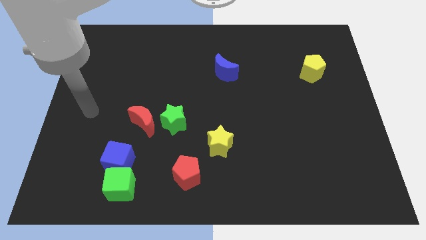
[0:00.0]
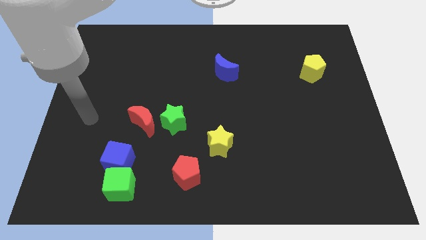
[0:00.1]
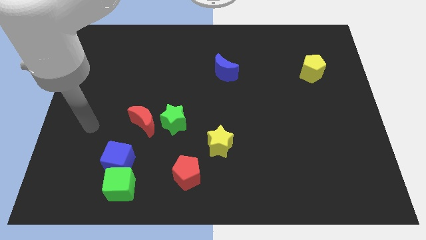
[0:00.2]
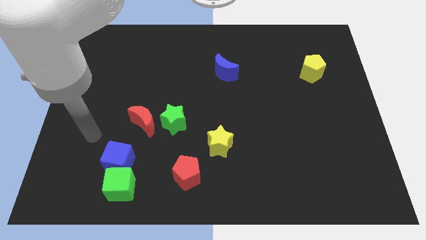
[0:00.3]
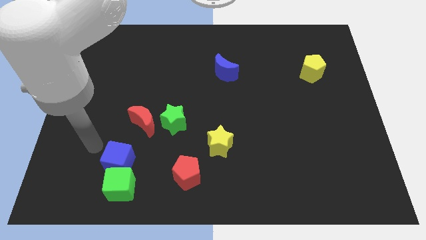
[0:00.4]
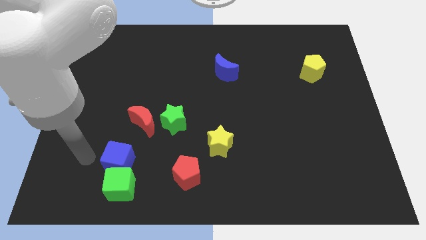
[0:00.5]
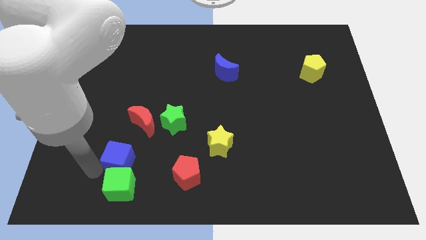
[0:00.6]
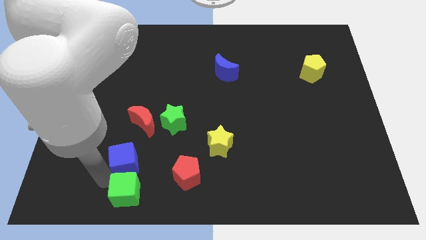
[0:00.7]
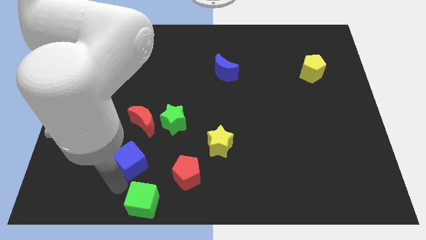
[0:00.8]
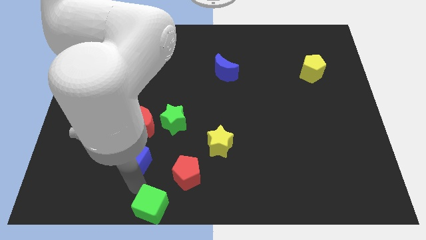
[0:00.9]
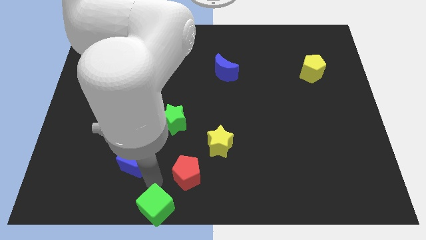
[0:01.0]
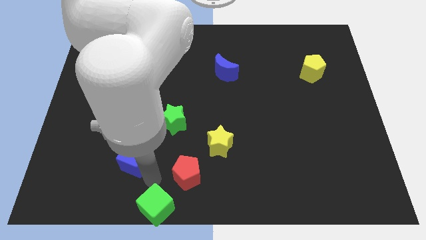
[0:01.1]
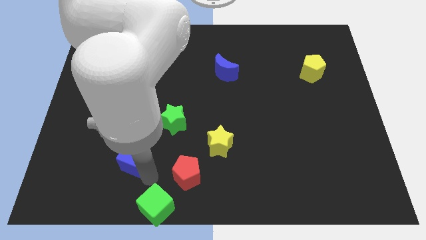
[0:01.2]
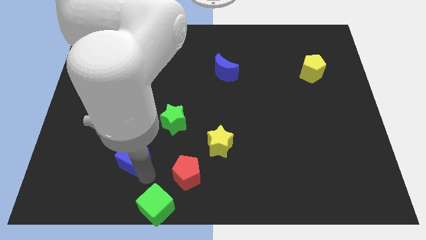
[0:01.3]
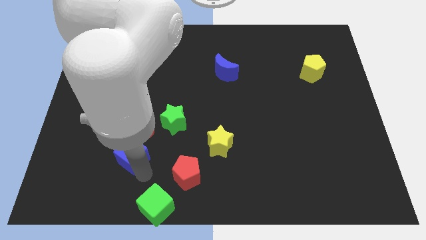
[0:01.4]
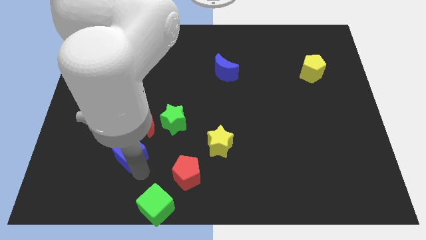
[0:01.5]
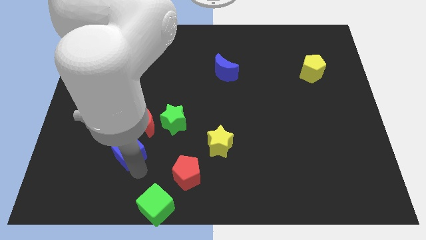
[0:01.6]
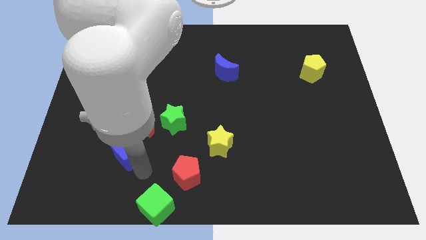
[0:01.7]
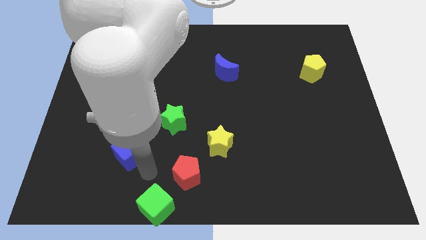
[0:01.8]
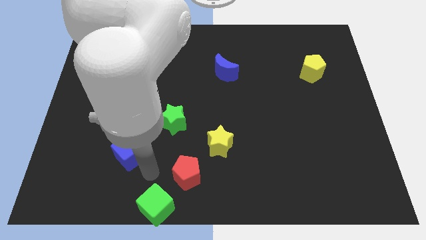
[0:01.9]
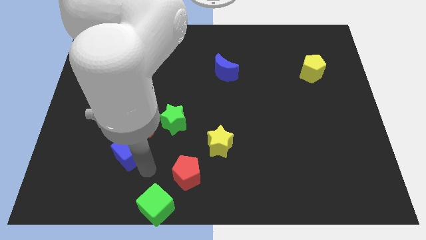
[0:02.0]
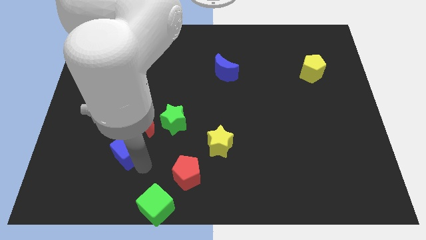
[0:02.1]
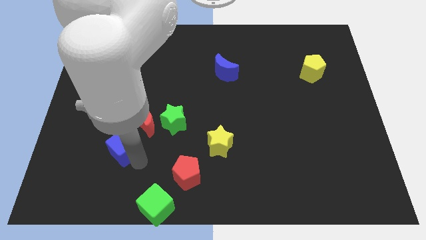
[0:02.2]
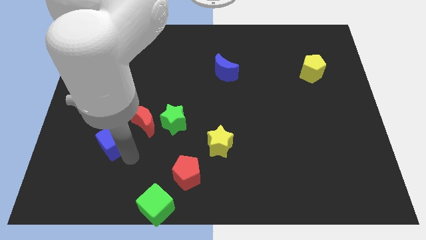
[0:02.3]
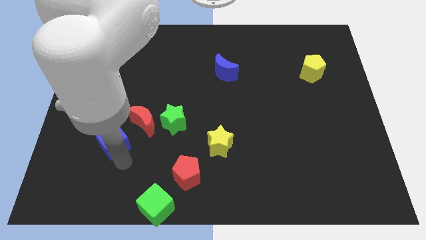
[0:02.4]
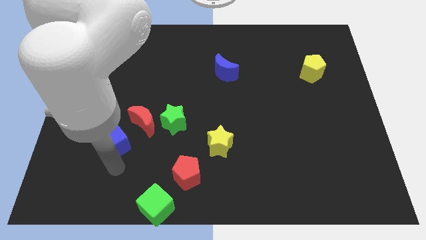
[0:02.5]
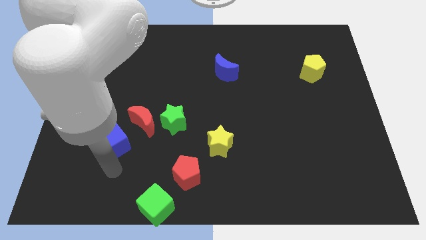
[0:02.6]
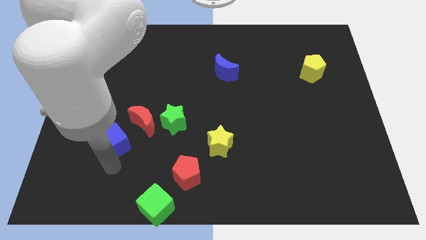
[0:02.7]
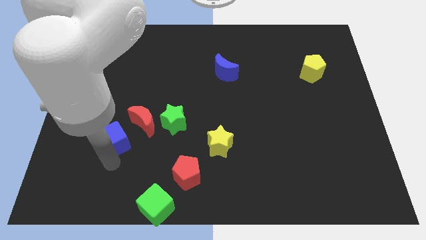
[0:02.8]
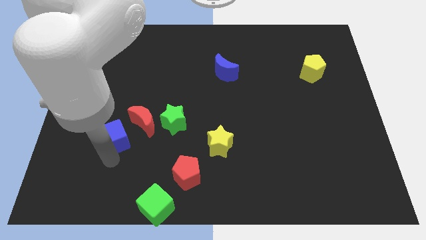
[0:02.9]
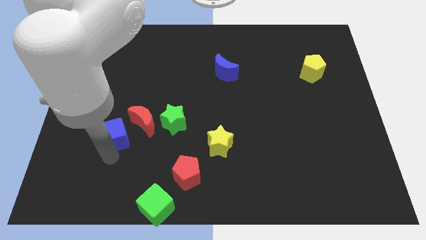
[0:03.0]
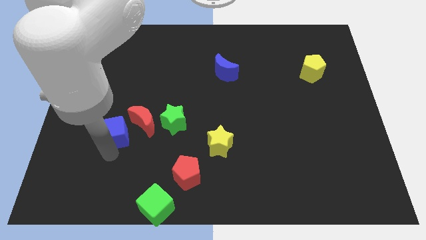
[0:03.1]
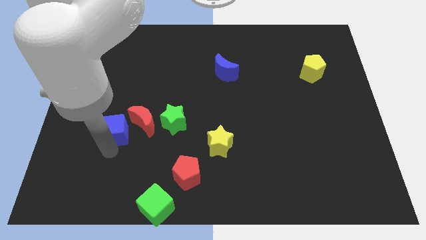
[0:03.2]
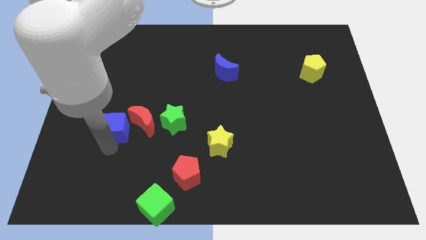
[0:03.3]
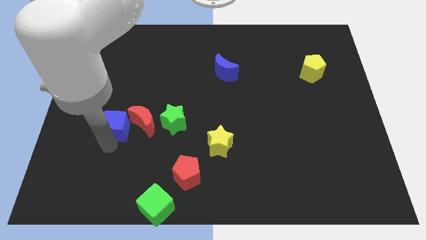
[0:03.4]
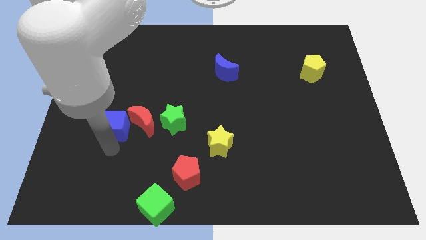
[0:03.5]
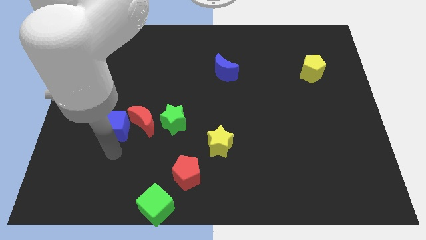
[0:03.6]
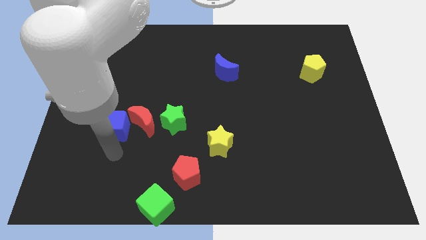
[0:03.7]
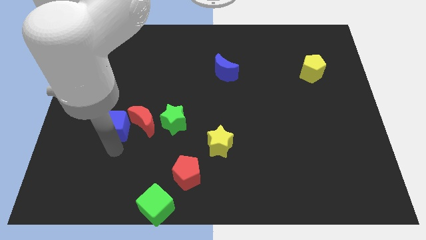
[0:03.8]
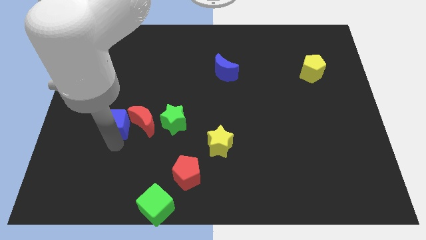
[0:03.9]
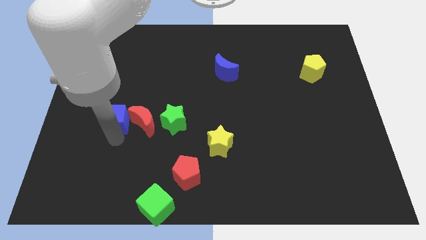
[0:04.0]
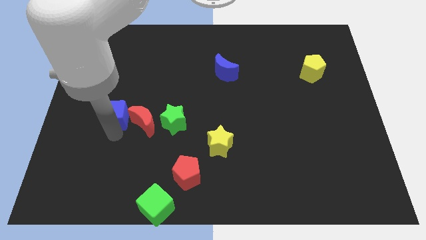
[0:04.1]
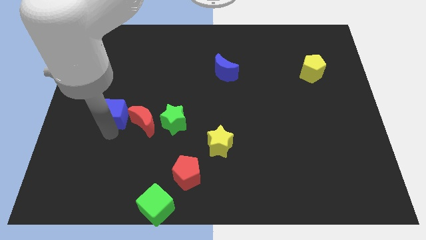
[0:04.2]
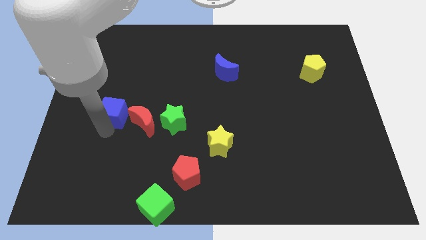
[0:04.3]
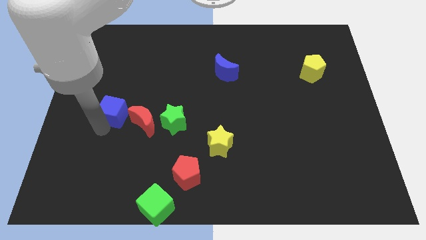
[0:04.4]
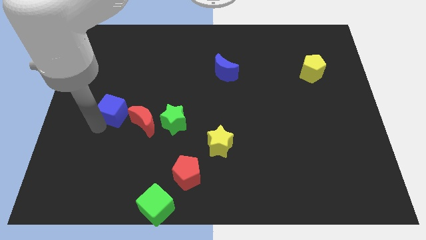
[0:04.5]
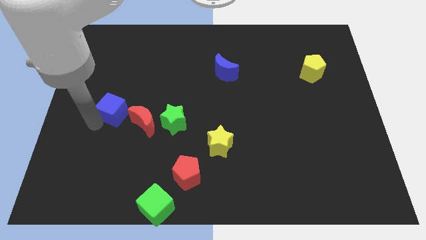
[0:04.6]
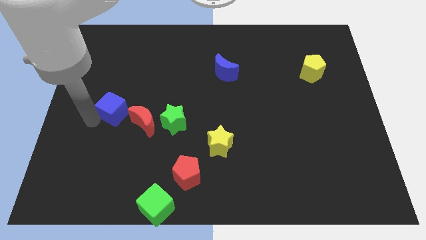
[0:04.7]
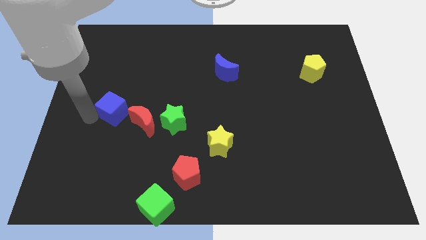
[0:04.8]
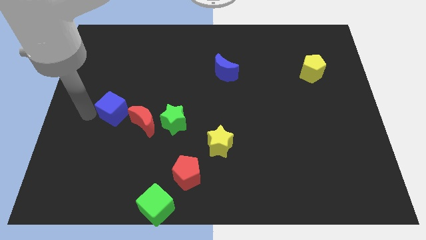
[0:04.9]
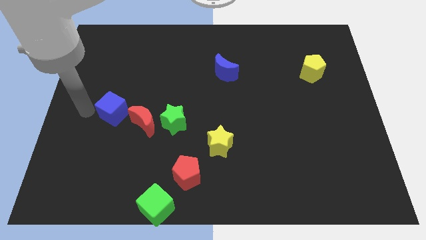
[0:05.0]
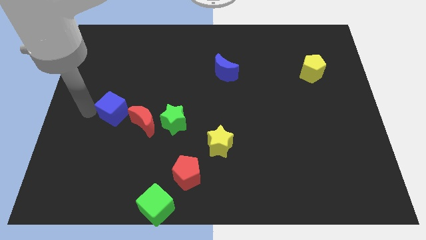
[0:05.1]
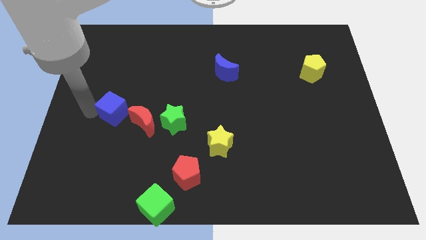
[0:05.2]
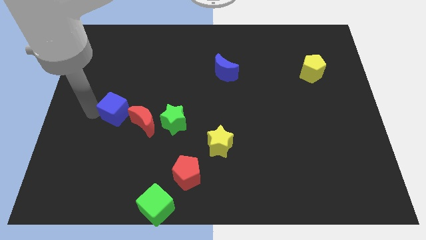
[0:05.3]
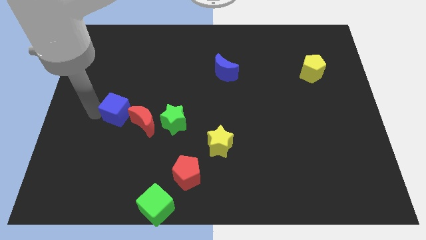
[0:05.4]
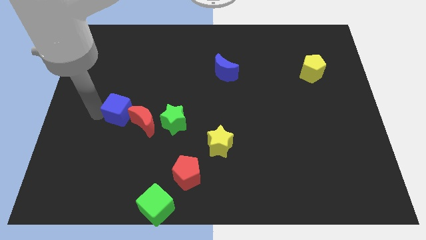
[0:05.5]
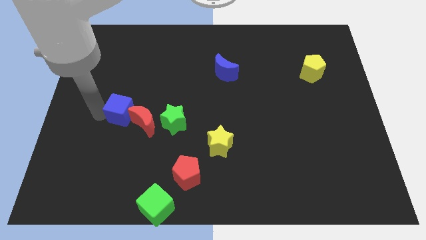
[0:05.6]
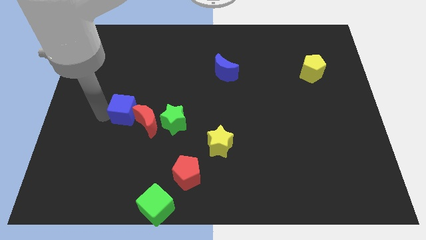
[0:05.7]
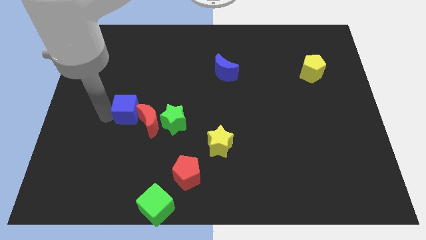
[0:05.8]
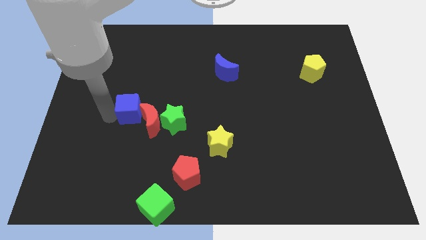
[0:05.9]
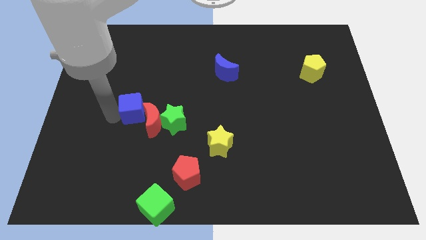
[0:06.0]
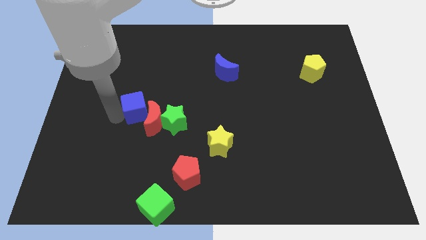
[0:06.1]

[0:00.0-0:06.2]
slide the blue cube to the top left side of the green star

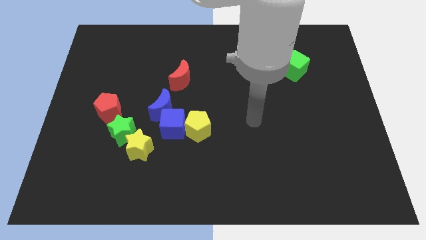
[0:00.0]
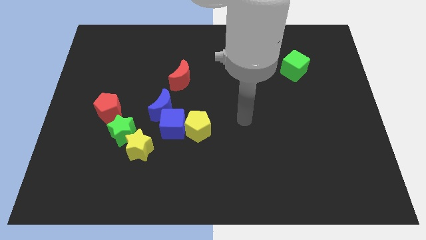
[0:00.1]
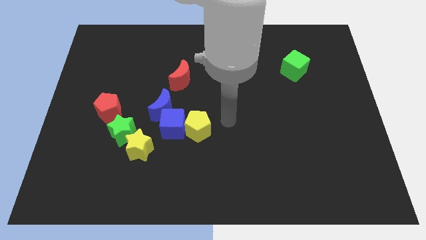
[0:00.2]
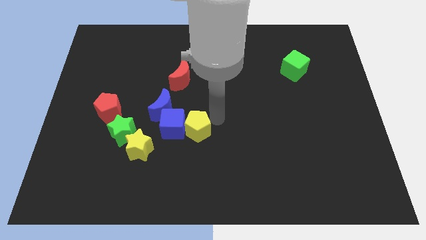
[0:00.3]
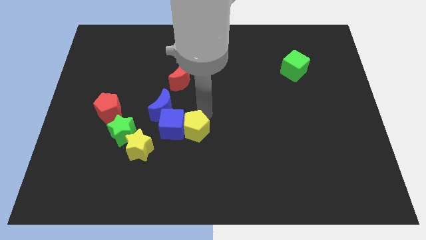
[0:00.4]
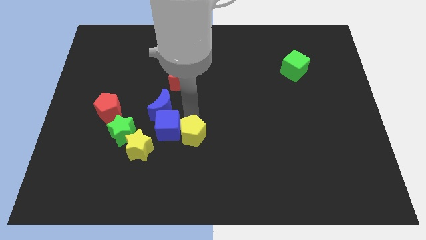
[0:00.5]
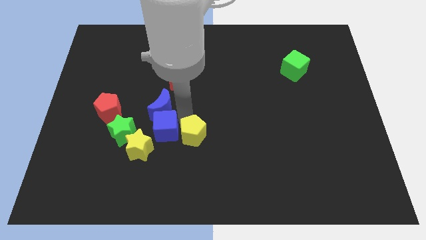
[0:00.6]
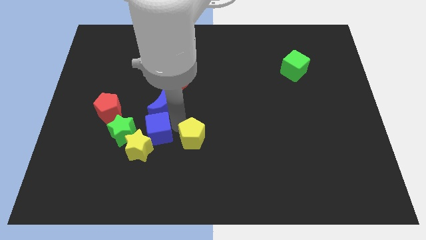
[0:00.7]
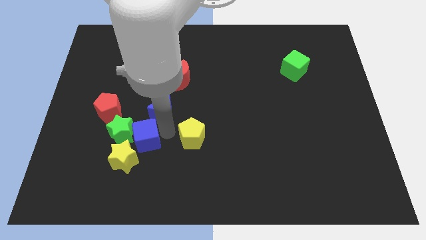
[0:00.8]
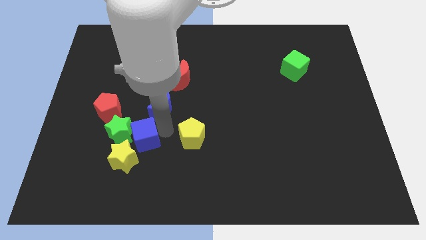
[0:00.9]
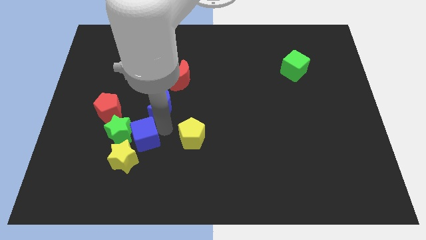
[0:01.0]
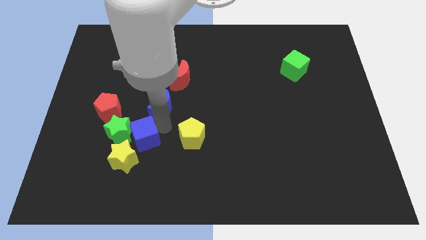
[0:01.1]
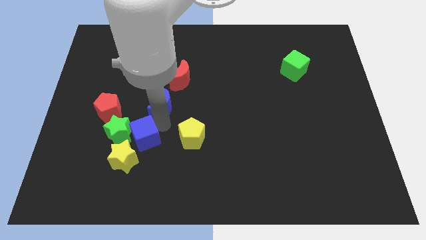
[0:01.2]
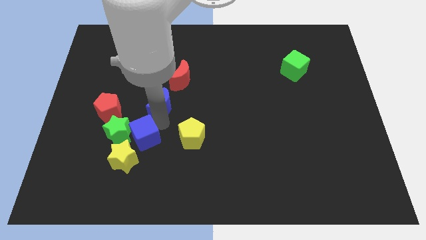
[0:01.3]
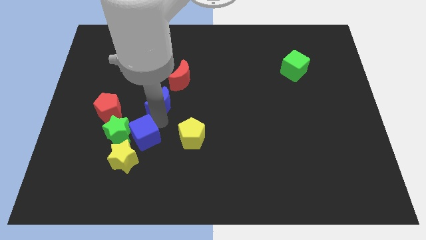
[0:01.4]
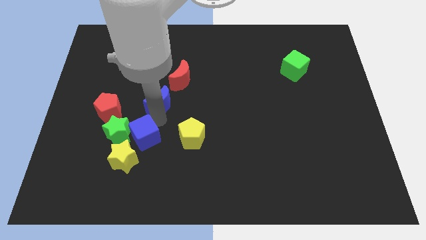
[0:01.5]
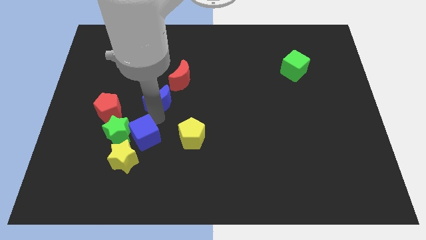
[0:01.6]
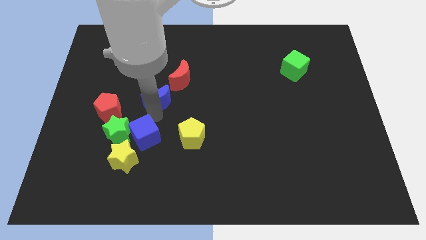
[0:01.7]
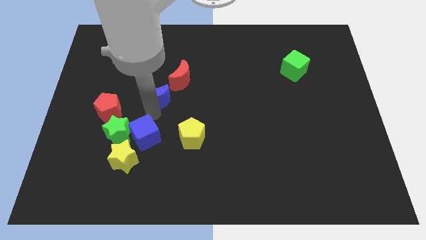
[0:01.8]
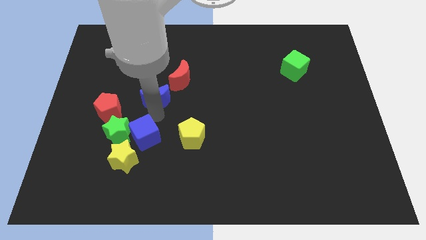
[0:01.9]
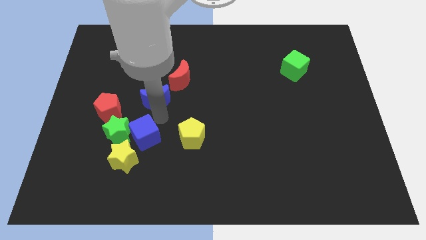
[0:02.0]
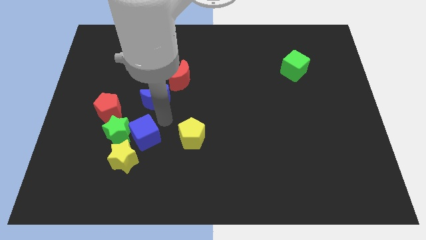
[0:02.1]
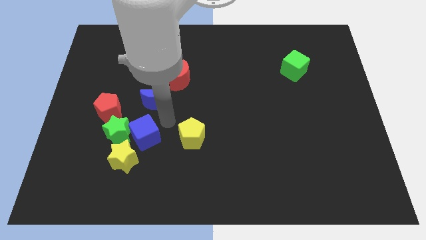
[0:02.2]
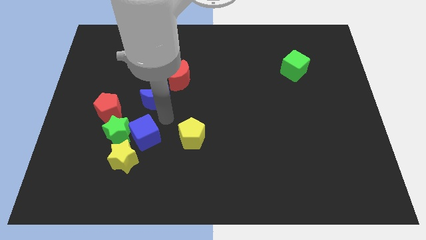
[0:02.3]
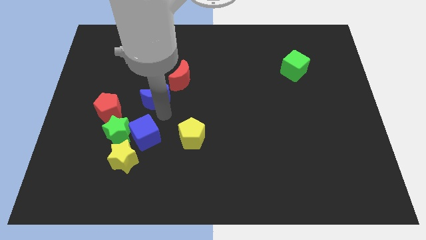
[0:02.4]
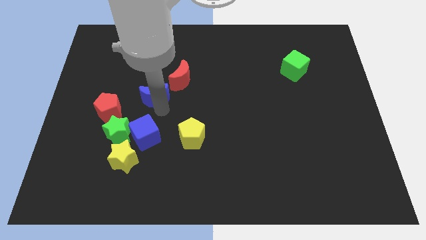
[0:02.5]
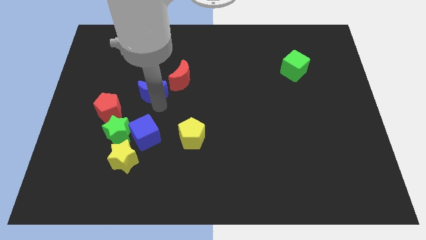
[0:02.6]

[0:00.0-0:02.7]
slide the blue moon left of the red moon
